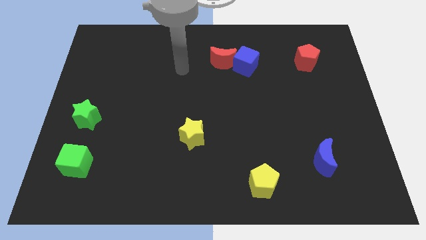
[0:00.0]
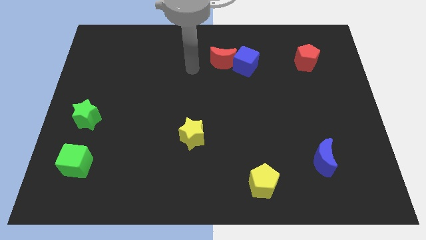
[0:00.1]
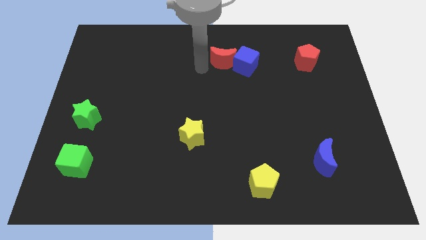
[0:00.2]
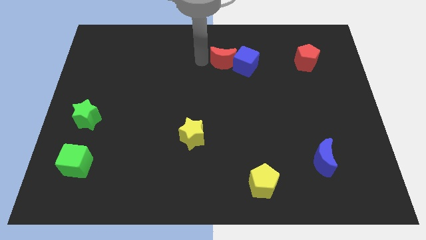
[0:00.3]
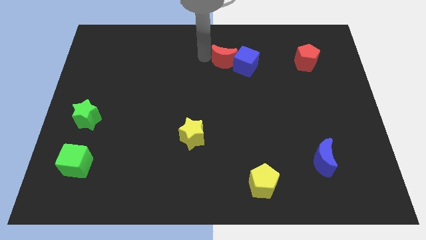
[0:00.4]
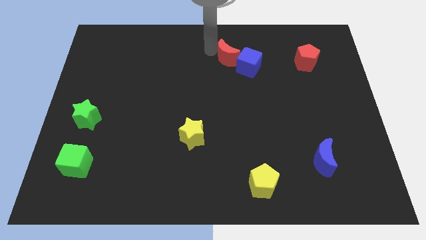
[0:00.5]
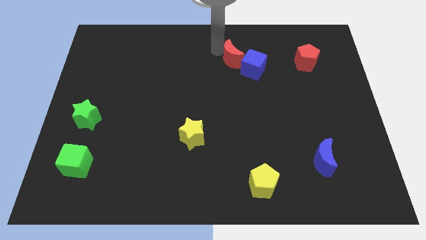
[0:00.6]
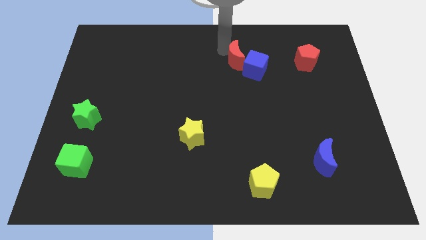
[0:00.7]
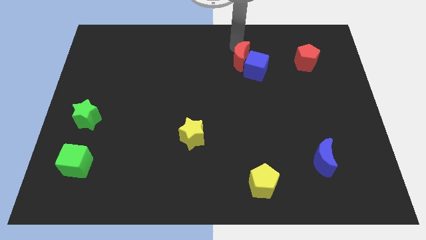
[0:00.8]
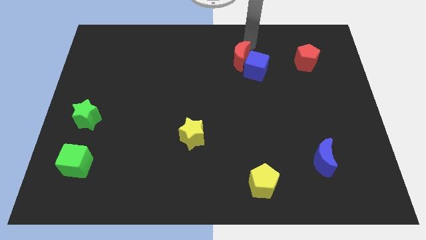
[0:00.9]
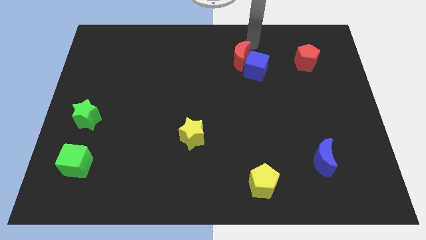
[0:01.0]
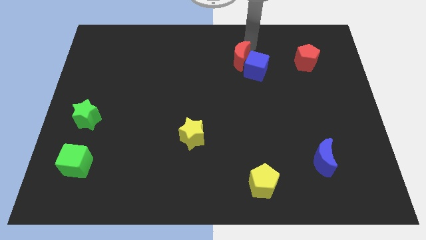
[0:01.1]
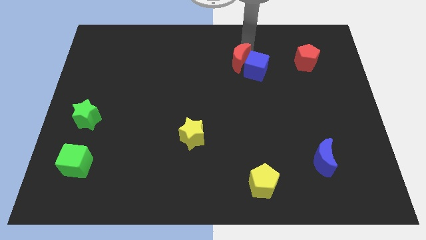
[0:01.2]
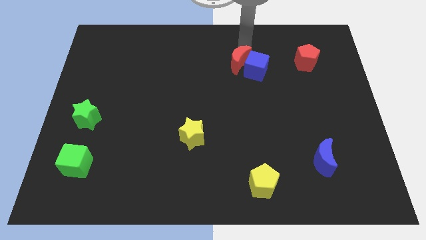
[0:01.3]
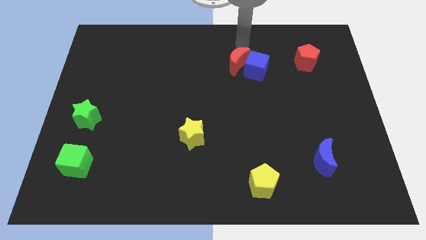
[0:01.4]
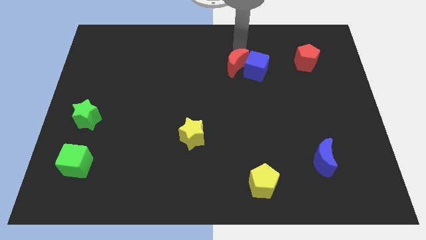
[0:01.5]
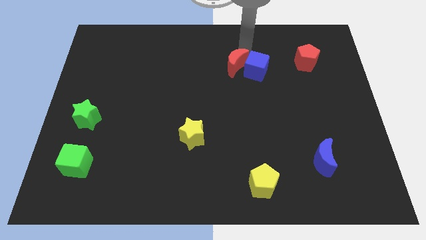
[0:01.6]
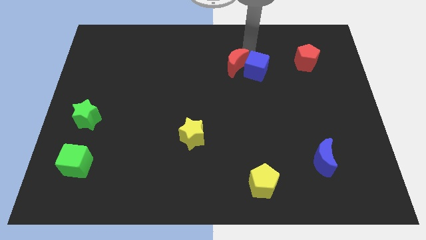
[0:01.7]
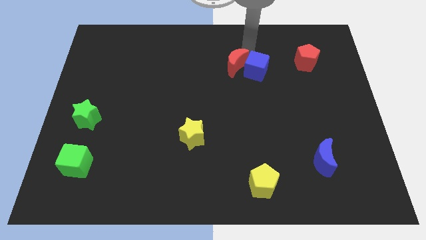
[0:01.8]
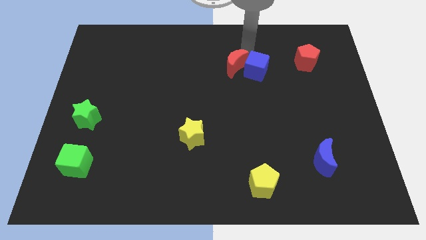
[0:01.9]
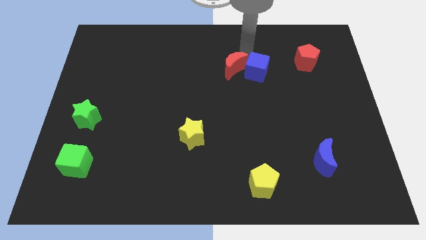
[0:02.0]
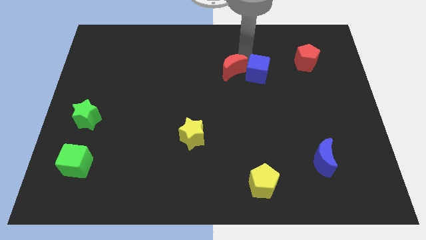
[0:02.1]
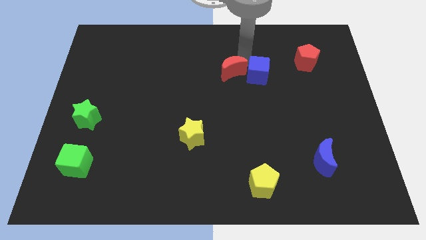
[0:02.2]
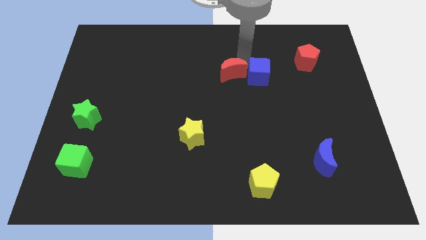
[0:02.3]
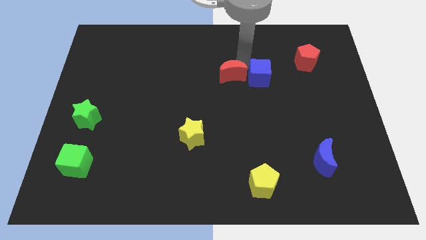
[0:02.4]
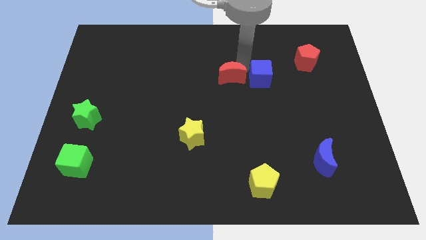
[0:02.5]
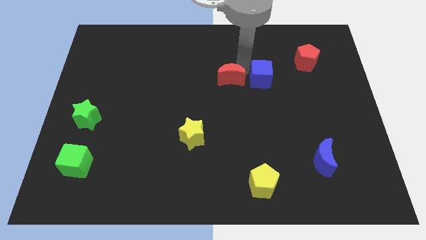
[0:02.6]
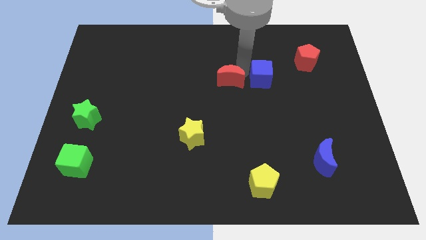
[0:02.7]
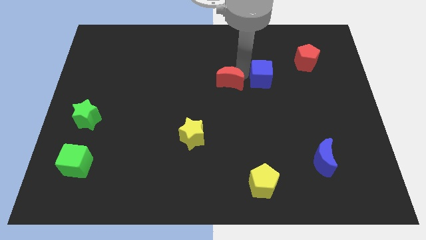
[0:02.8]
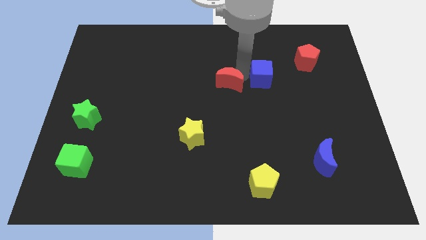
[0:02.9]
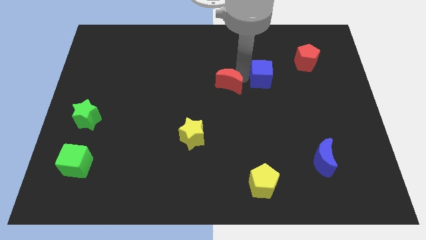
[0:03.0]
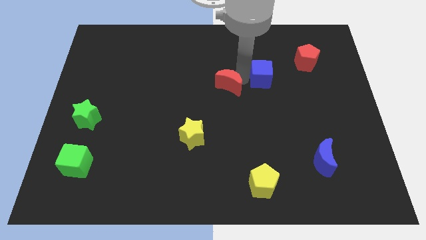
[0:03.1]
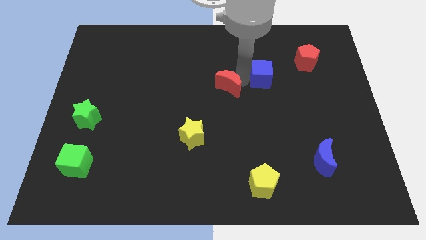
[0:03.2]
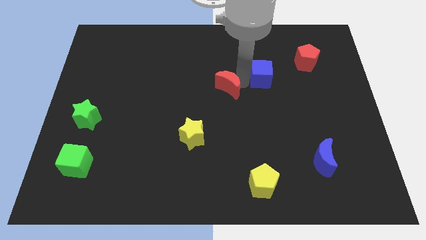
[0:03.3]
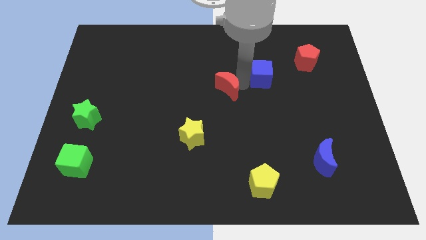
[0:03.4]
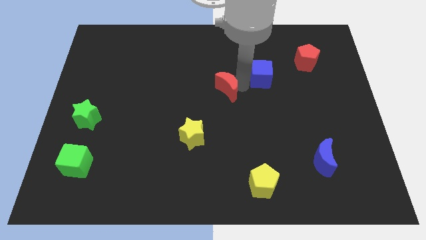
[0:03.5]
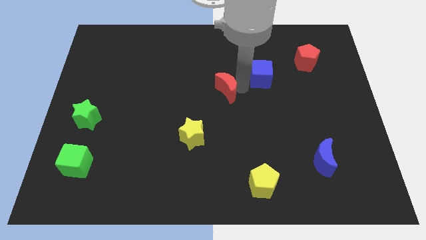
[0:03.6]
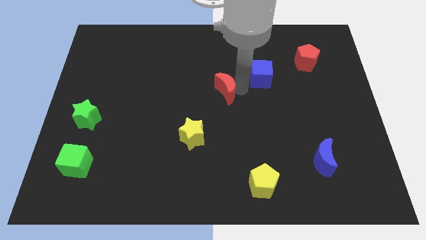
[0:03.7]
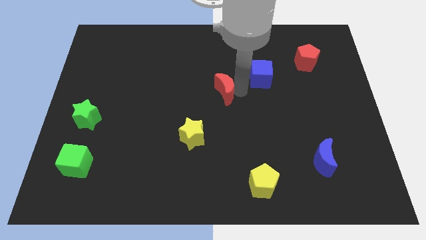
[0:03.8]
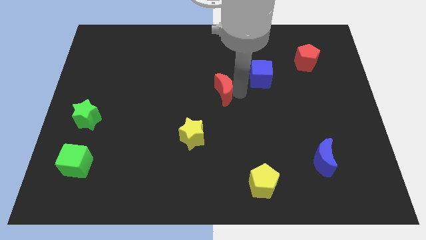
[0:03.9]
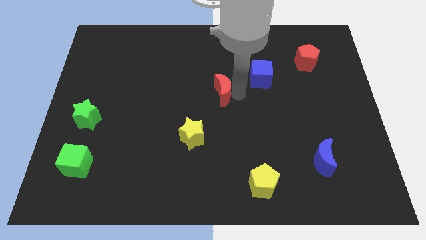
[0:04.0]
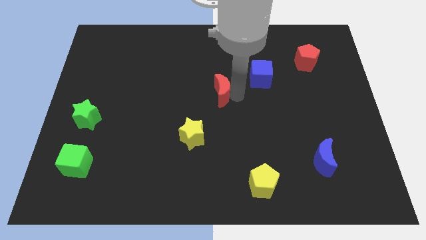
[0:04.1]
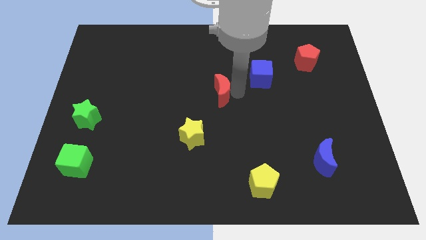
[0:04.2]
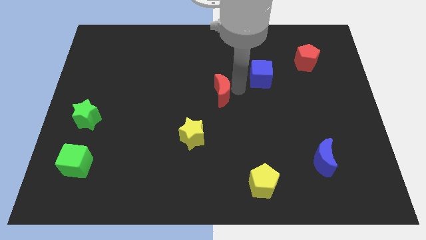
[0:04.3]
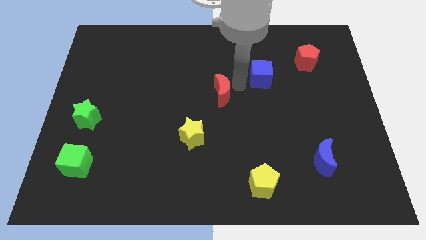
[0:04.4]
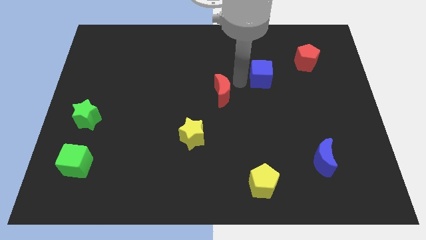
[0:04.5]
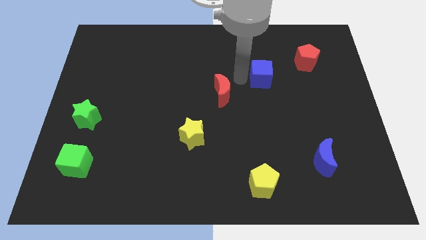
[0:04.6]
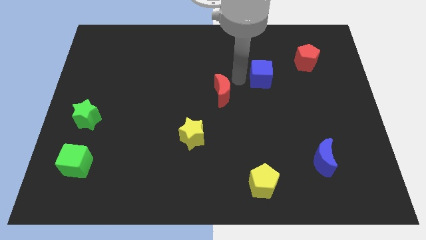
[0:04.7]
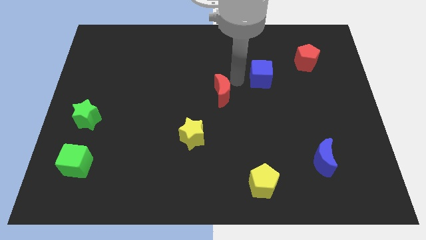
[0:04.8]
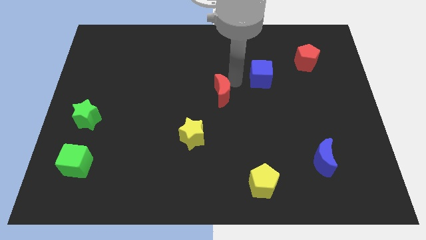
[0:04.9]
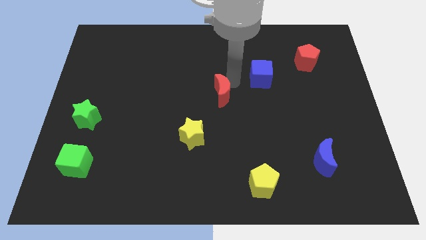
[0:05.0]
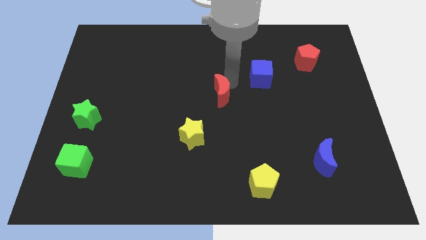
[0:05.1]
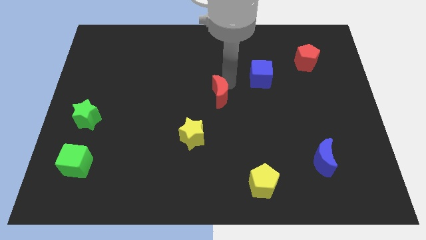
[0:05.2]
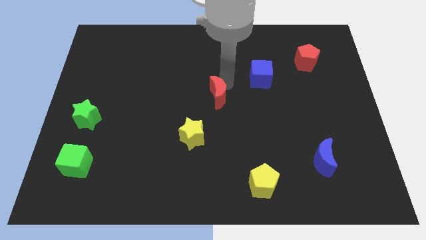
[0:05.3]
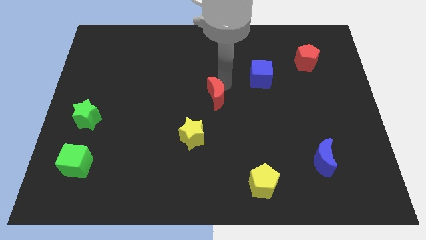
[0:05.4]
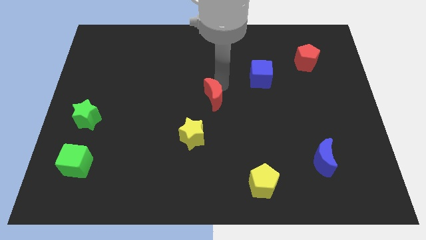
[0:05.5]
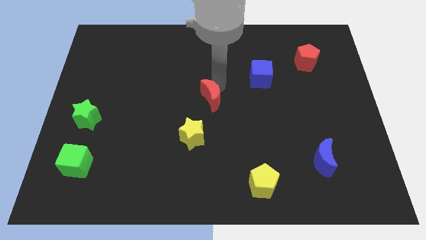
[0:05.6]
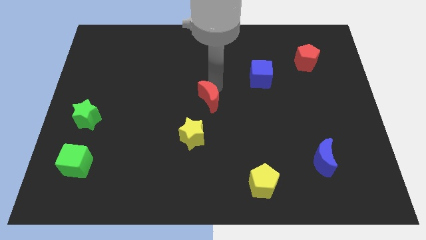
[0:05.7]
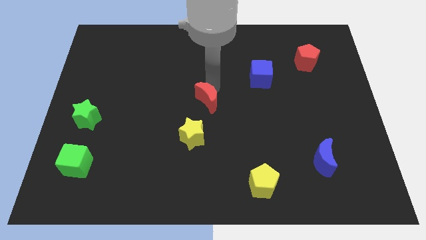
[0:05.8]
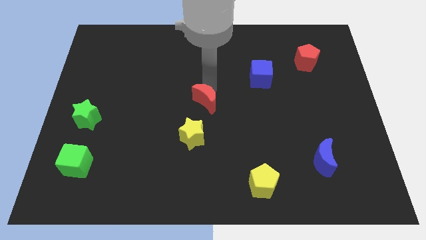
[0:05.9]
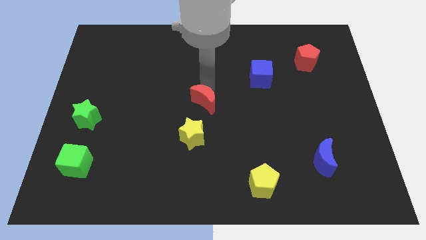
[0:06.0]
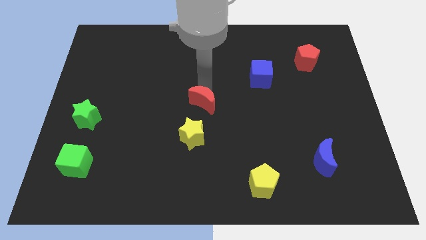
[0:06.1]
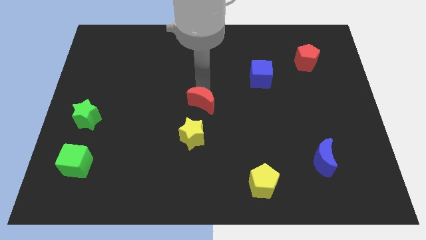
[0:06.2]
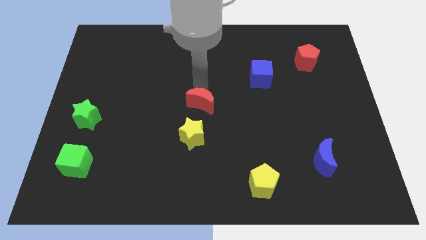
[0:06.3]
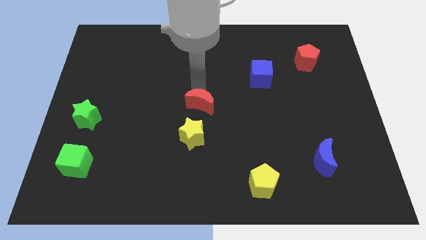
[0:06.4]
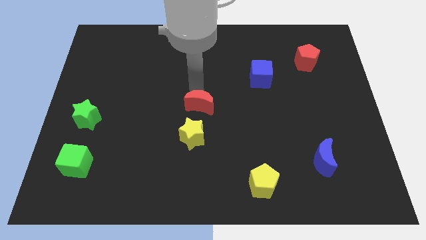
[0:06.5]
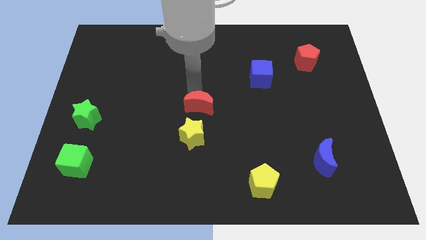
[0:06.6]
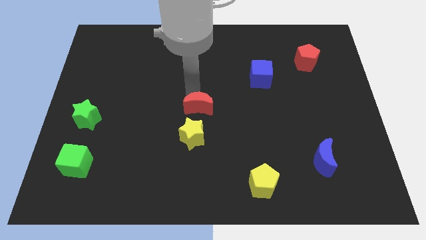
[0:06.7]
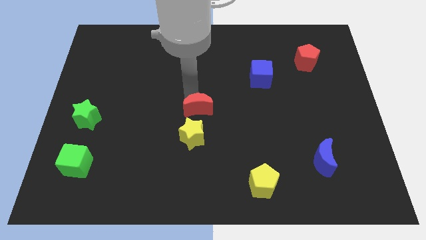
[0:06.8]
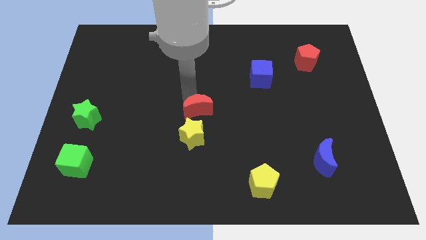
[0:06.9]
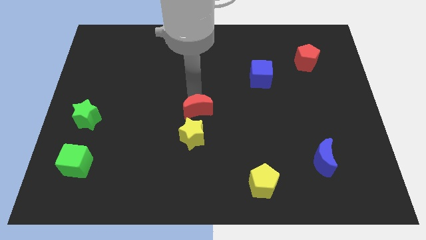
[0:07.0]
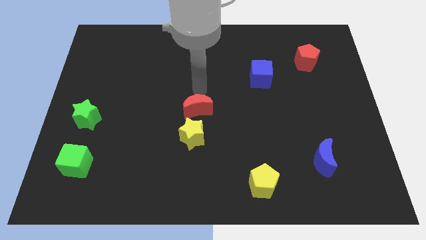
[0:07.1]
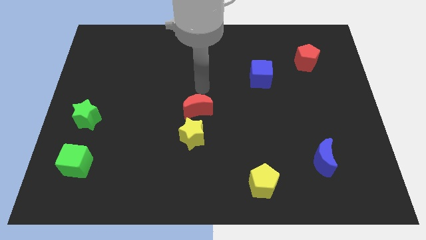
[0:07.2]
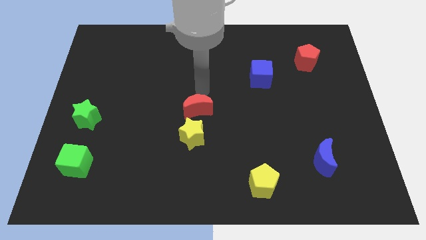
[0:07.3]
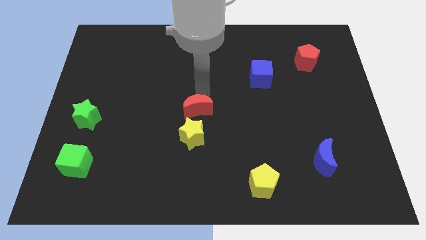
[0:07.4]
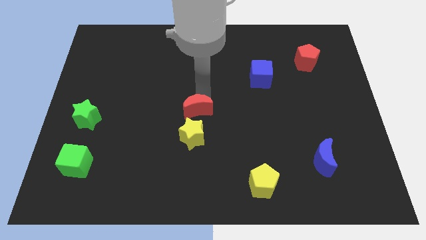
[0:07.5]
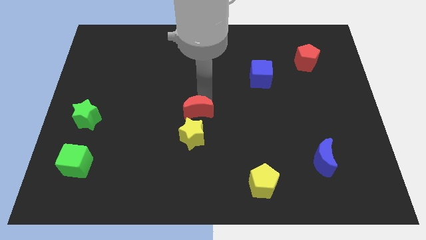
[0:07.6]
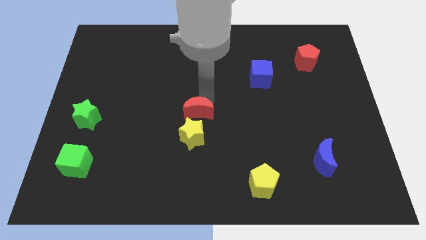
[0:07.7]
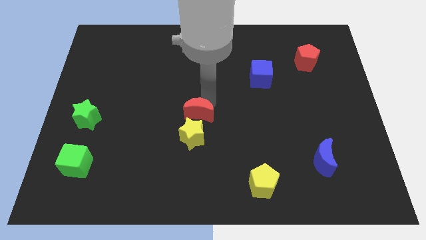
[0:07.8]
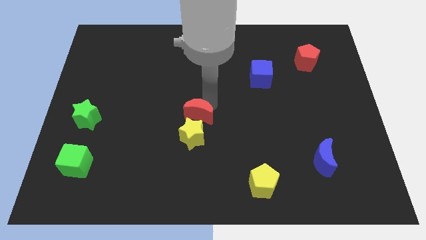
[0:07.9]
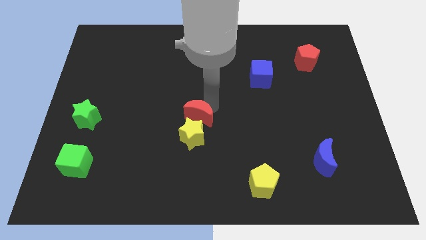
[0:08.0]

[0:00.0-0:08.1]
push the red moon next to the yellow star
